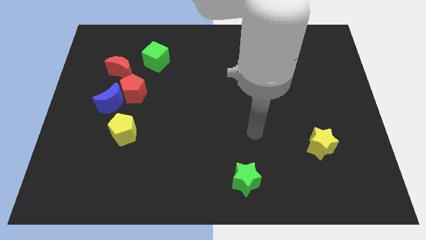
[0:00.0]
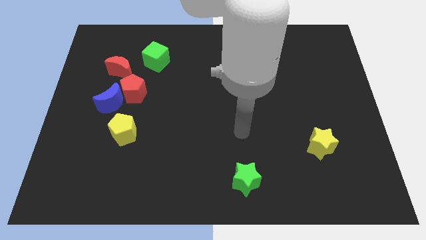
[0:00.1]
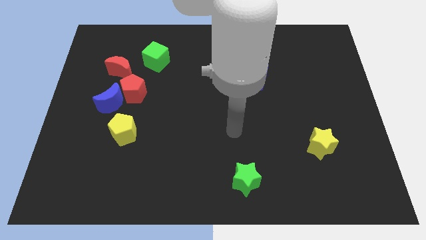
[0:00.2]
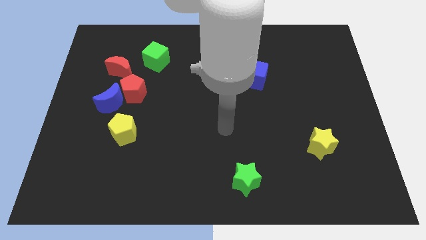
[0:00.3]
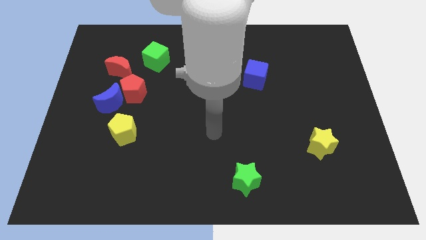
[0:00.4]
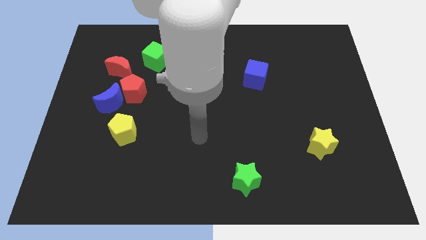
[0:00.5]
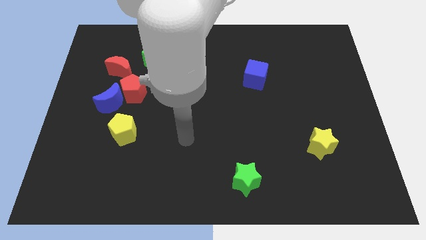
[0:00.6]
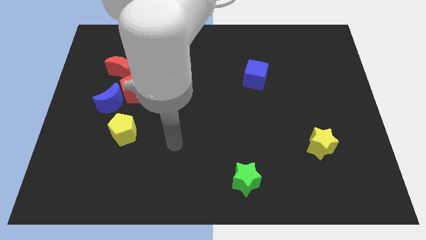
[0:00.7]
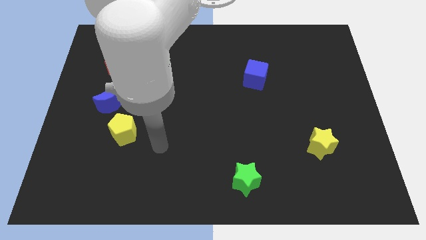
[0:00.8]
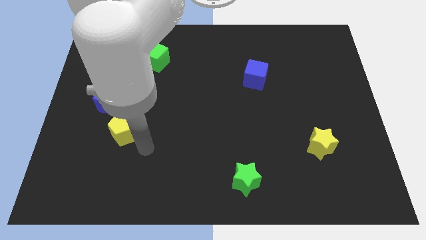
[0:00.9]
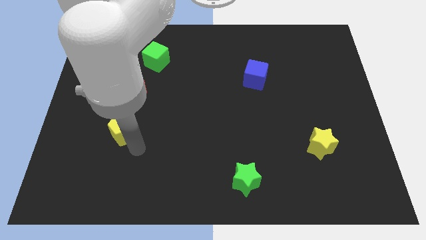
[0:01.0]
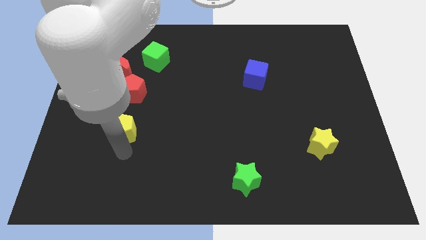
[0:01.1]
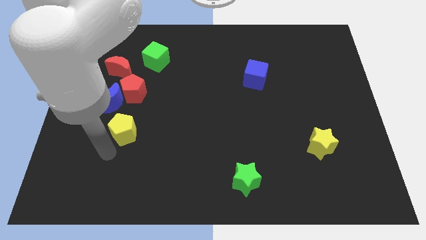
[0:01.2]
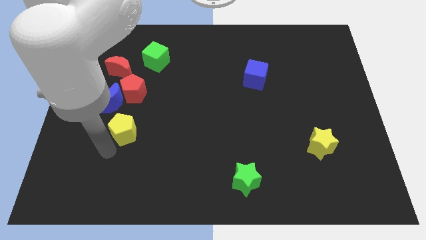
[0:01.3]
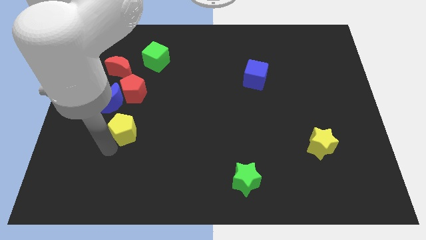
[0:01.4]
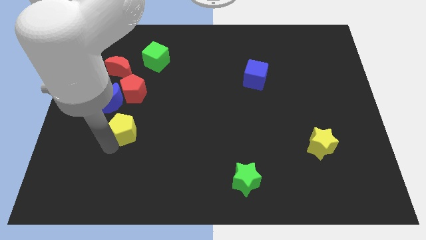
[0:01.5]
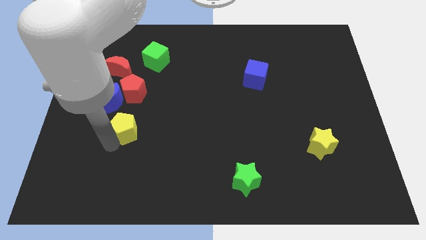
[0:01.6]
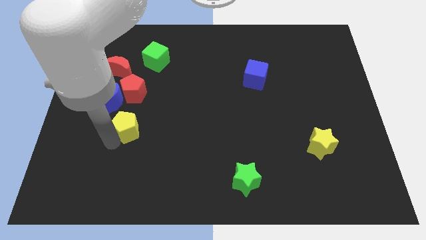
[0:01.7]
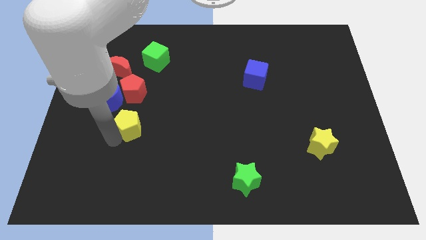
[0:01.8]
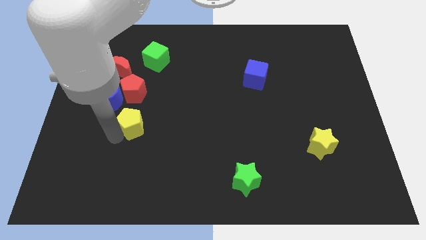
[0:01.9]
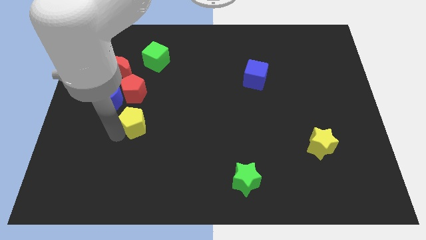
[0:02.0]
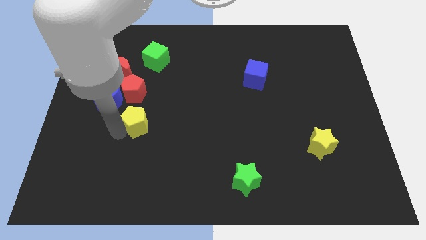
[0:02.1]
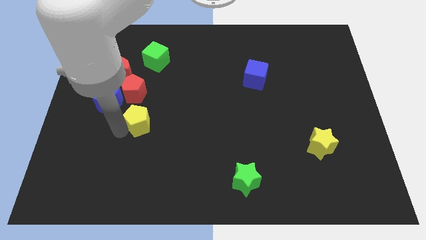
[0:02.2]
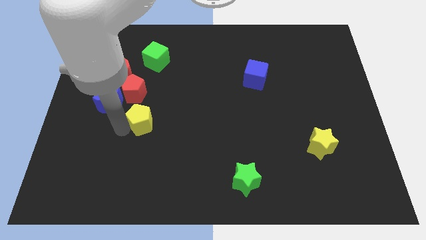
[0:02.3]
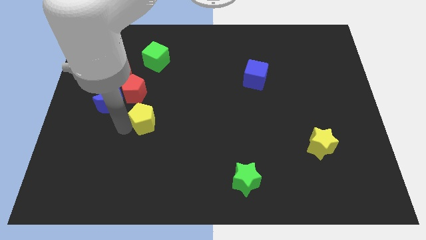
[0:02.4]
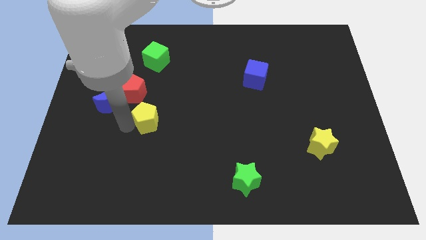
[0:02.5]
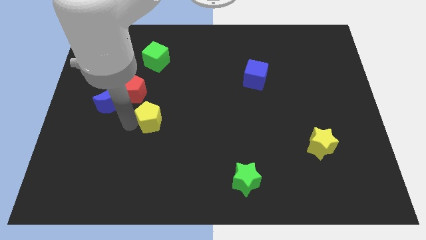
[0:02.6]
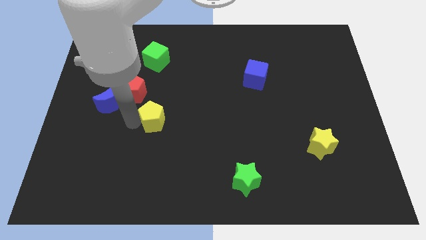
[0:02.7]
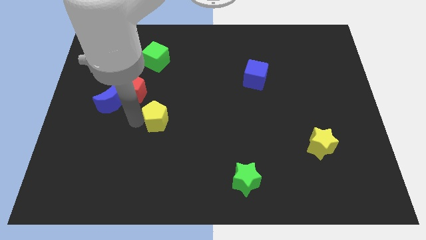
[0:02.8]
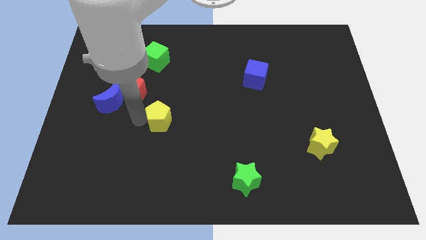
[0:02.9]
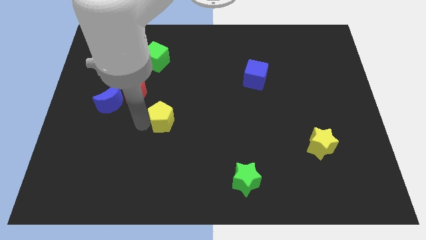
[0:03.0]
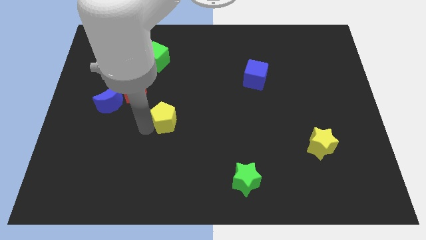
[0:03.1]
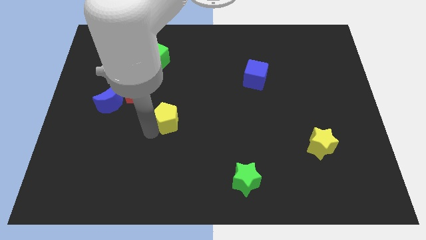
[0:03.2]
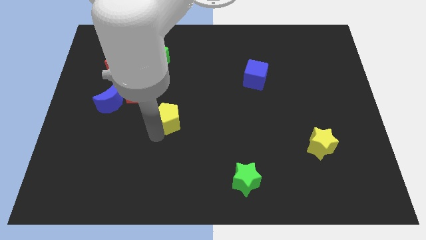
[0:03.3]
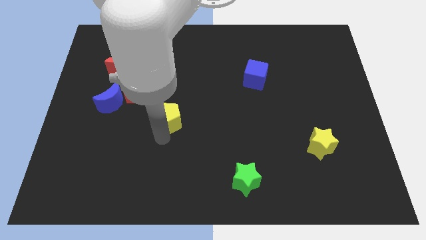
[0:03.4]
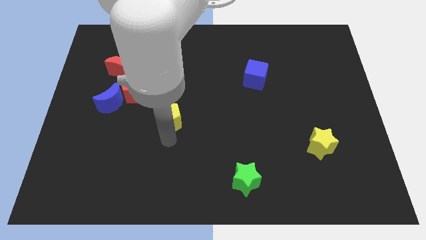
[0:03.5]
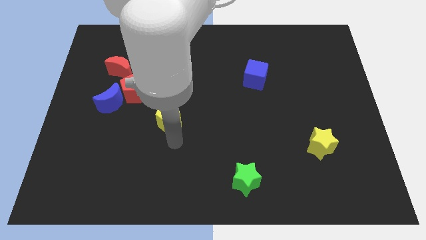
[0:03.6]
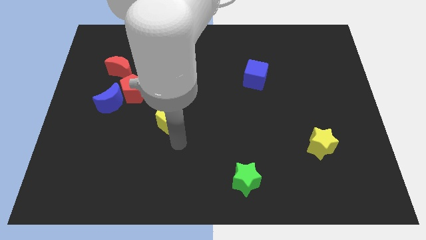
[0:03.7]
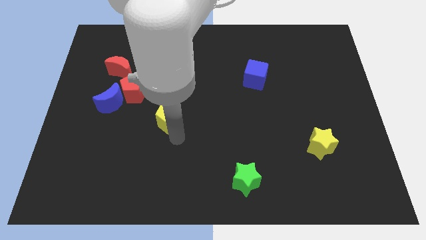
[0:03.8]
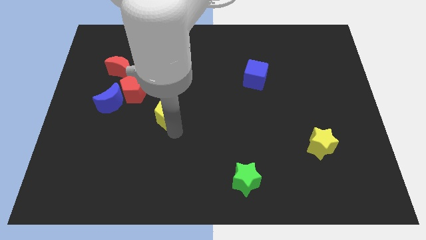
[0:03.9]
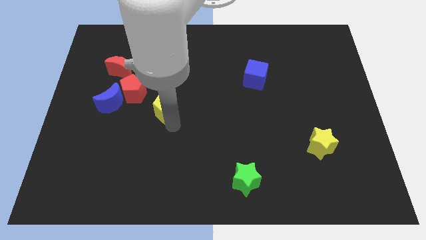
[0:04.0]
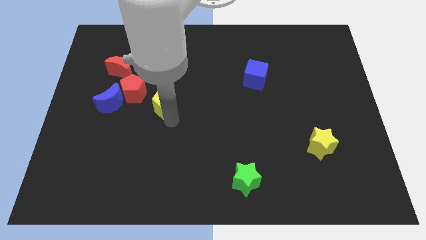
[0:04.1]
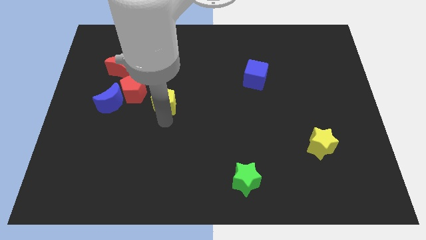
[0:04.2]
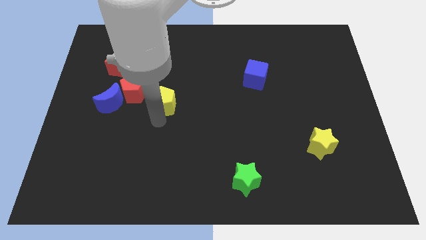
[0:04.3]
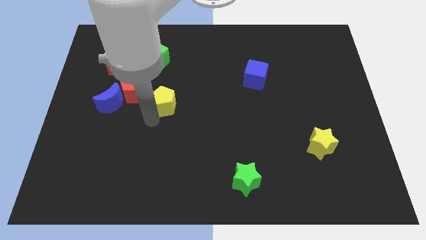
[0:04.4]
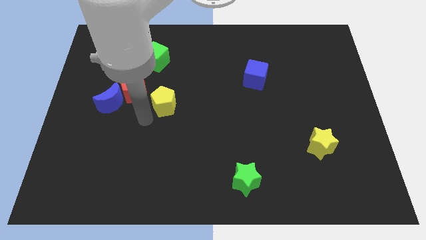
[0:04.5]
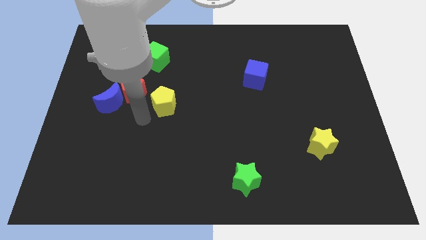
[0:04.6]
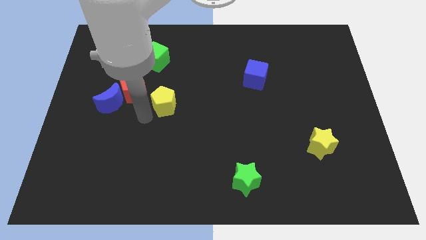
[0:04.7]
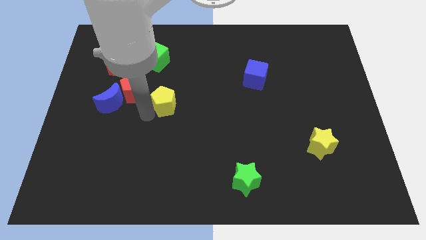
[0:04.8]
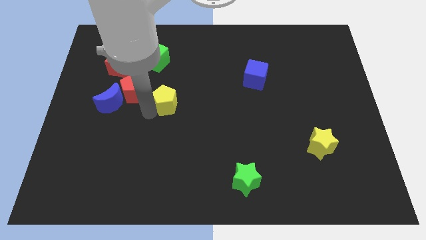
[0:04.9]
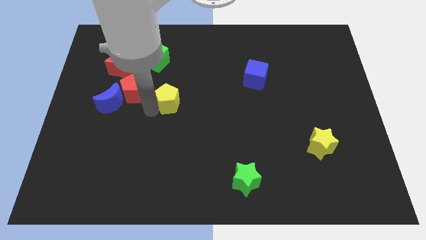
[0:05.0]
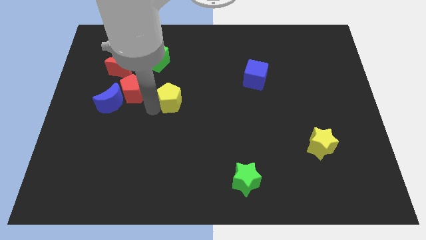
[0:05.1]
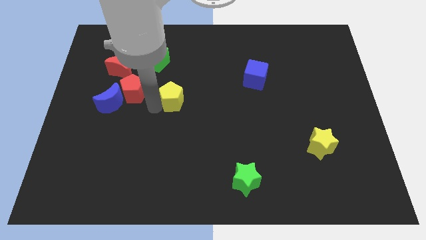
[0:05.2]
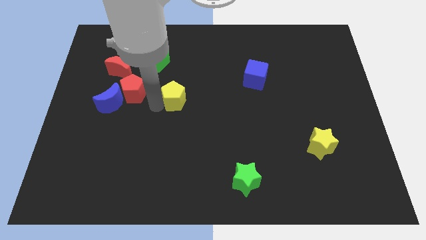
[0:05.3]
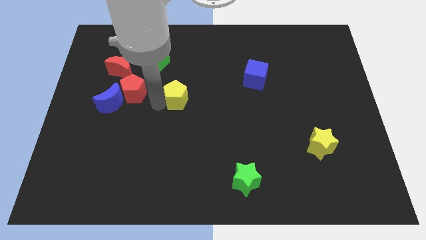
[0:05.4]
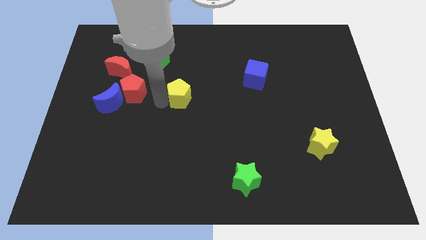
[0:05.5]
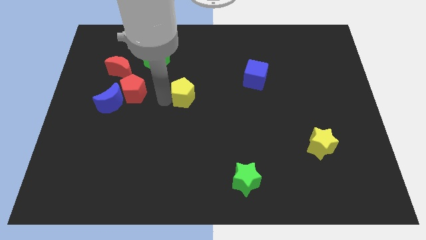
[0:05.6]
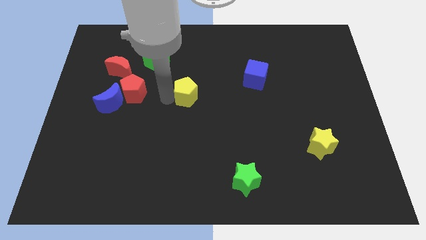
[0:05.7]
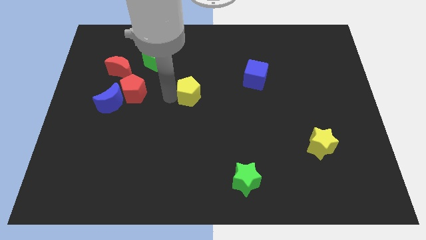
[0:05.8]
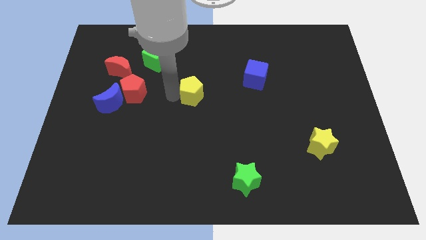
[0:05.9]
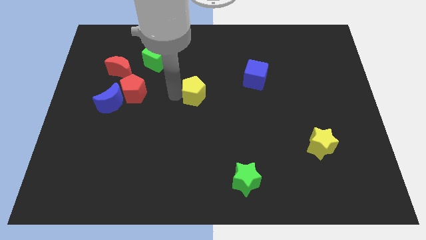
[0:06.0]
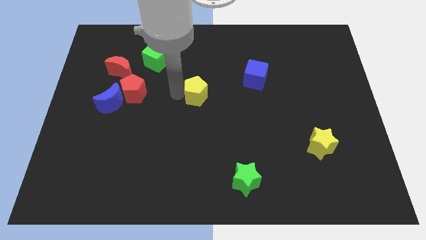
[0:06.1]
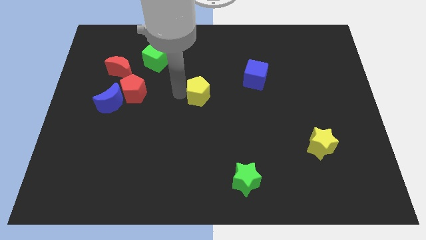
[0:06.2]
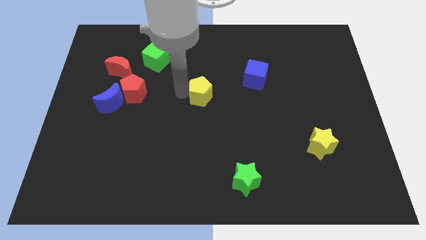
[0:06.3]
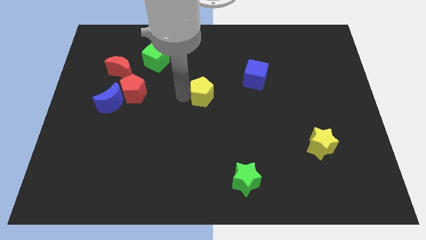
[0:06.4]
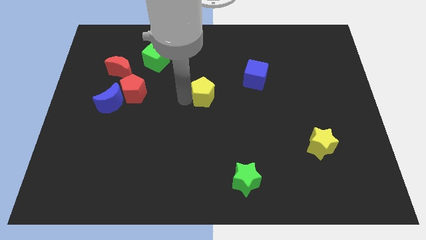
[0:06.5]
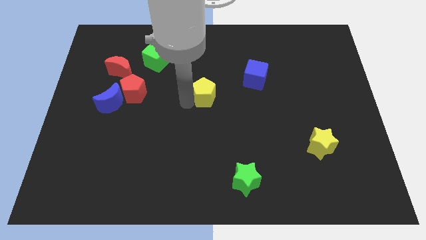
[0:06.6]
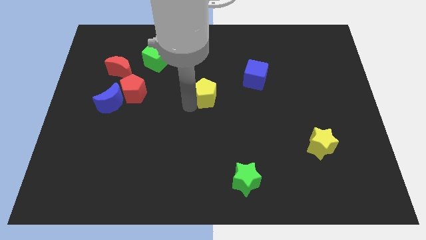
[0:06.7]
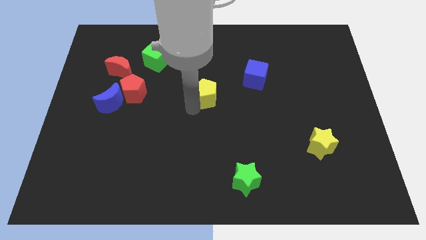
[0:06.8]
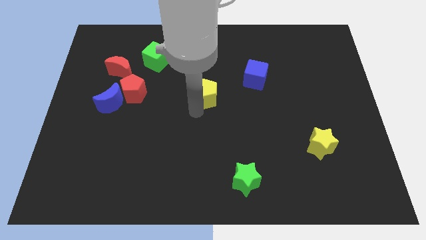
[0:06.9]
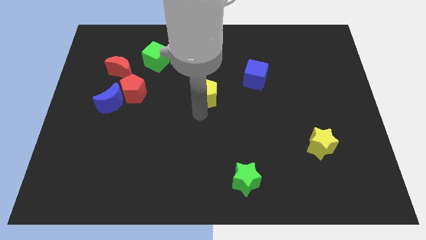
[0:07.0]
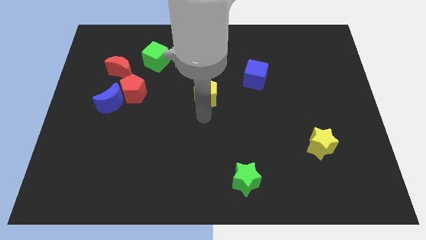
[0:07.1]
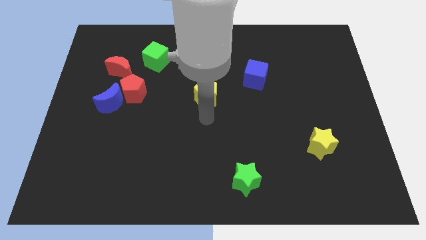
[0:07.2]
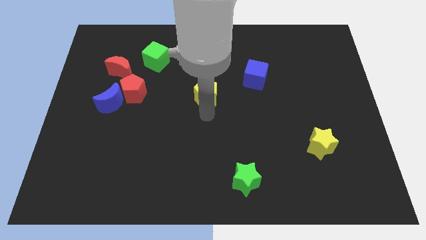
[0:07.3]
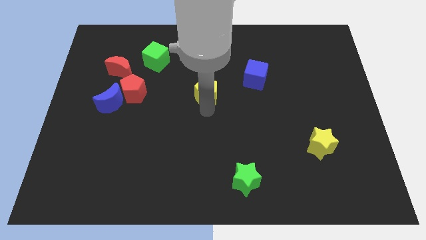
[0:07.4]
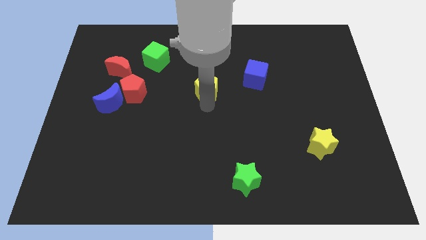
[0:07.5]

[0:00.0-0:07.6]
move the yellow pentagon up and then to the right

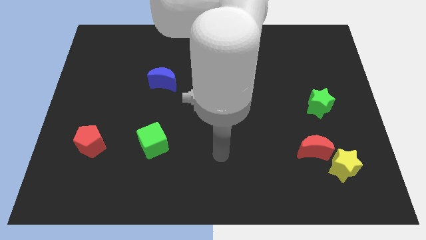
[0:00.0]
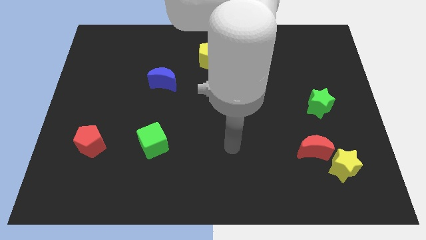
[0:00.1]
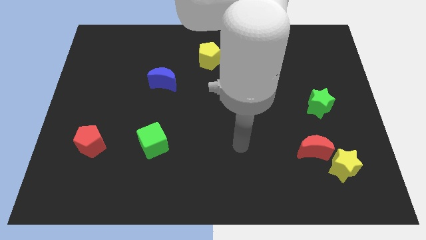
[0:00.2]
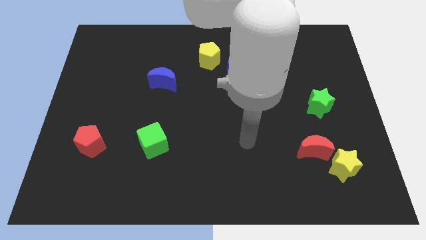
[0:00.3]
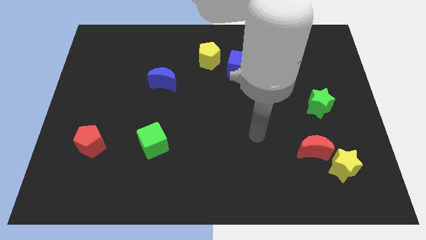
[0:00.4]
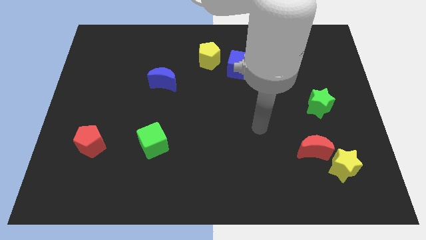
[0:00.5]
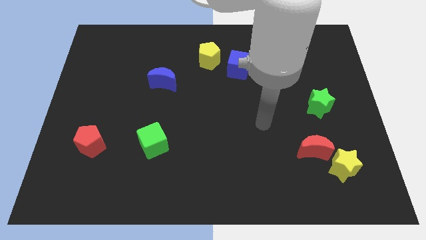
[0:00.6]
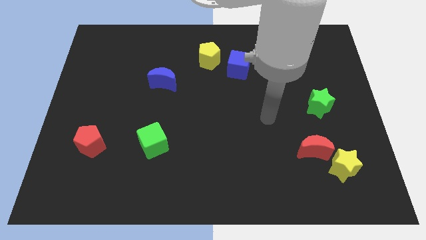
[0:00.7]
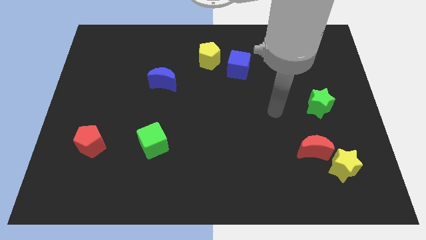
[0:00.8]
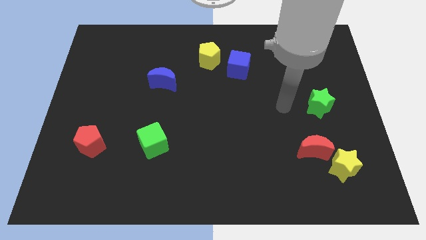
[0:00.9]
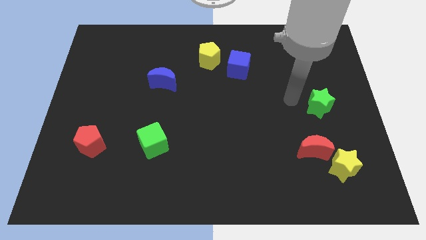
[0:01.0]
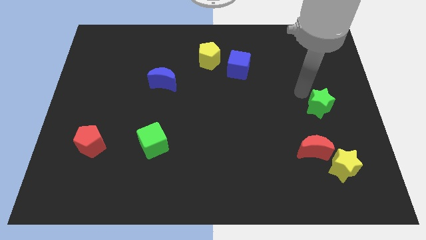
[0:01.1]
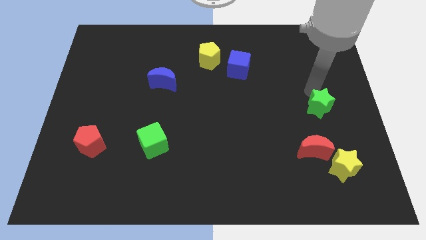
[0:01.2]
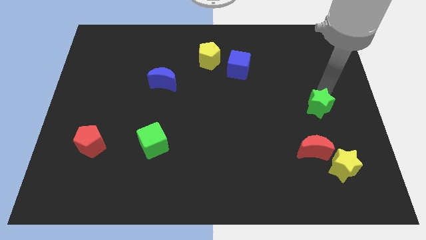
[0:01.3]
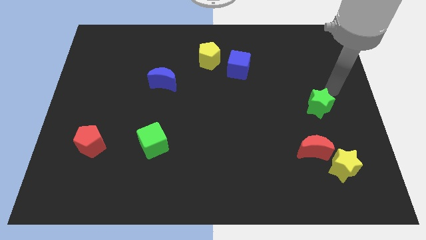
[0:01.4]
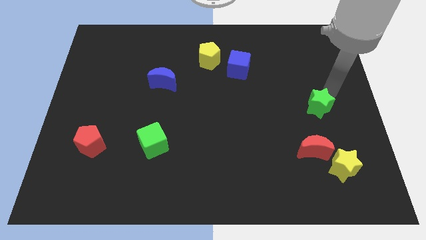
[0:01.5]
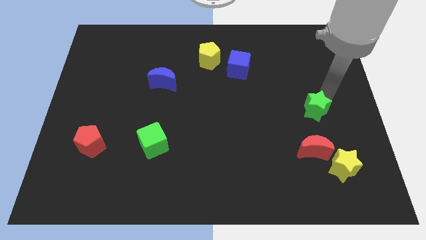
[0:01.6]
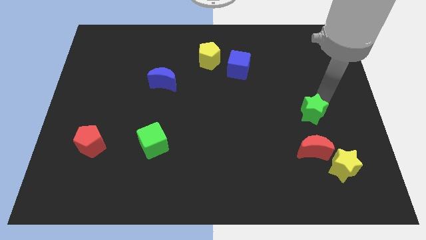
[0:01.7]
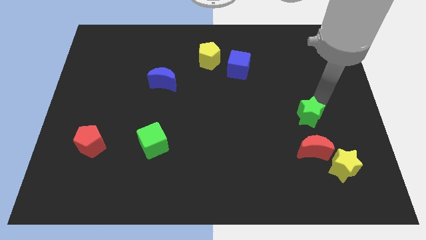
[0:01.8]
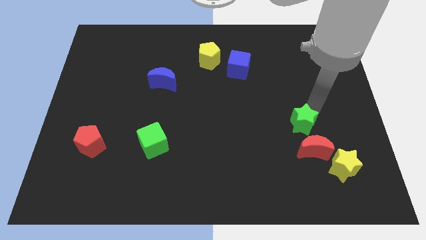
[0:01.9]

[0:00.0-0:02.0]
slightly push the green star down and then left
